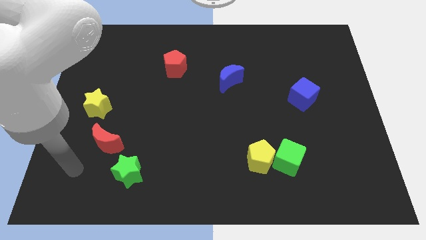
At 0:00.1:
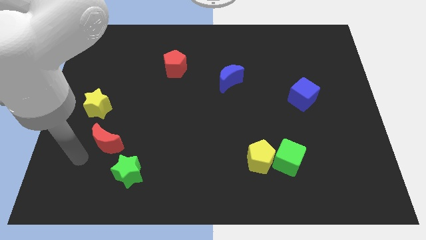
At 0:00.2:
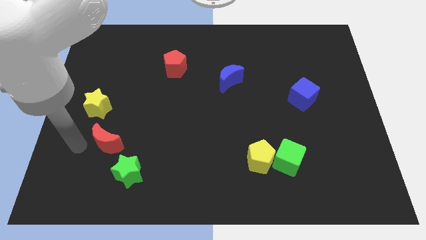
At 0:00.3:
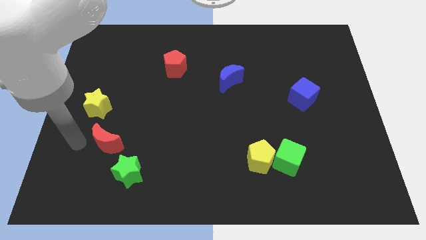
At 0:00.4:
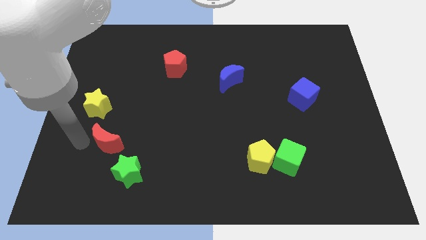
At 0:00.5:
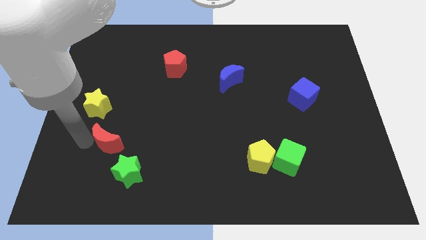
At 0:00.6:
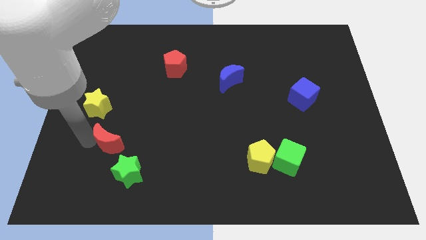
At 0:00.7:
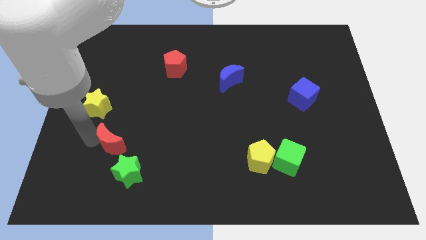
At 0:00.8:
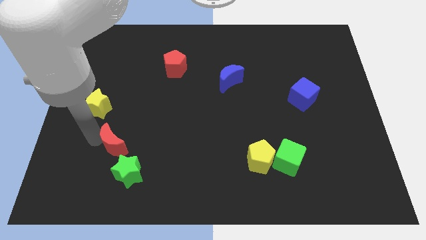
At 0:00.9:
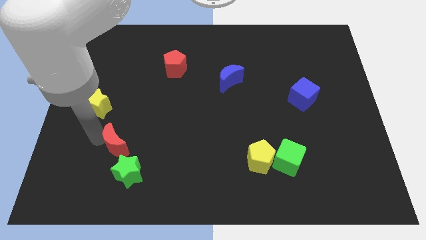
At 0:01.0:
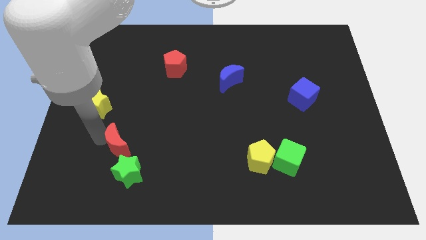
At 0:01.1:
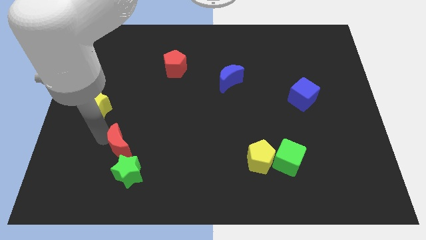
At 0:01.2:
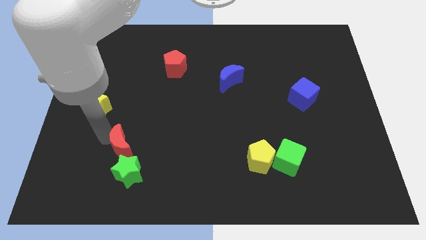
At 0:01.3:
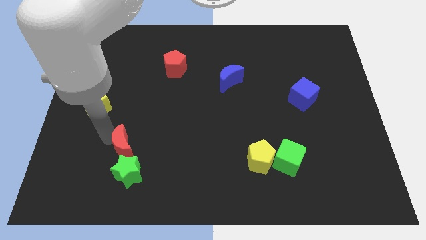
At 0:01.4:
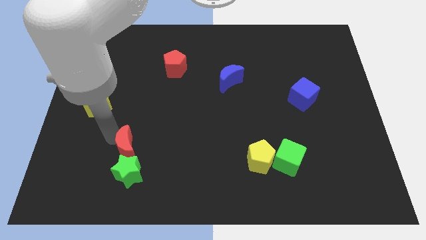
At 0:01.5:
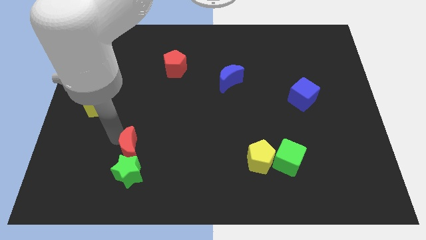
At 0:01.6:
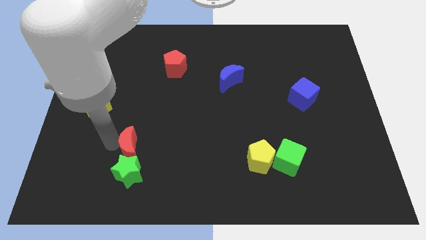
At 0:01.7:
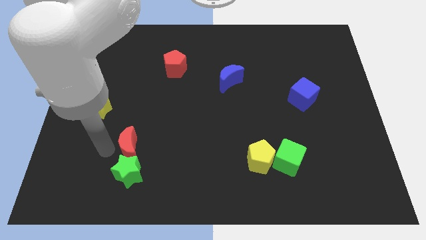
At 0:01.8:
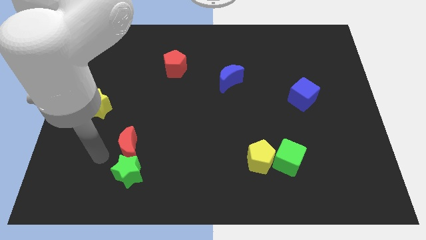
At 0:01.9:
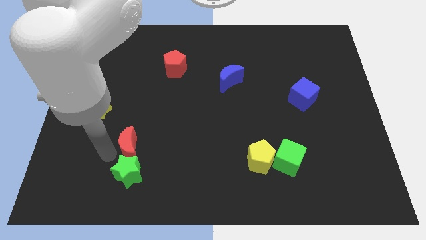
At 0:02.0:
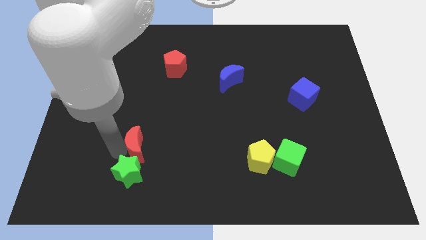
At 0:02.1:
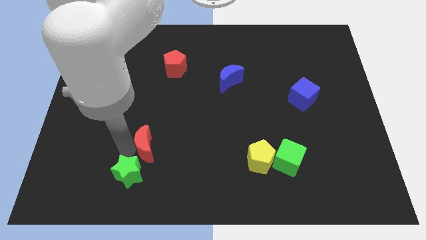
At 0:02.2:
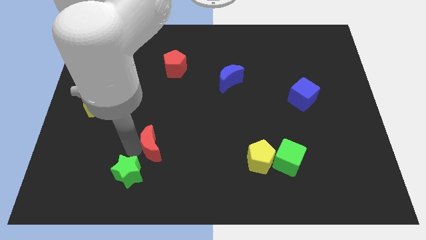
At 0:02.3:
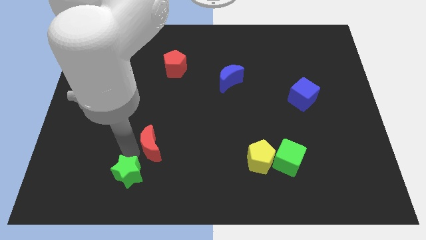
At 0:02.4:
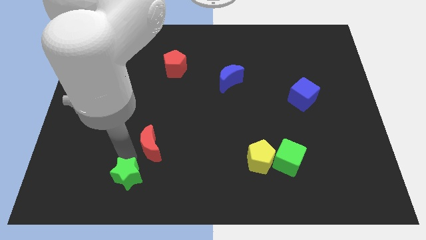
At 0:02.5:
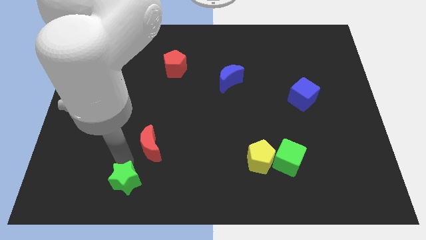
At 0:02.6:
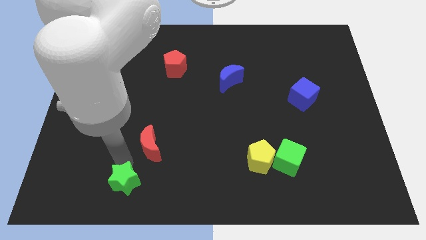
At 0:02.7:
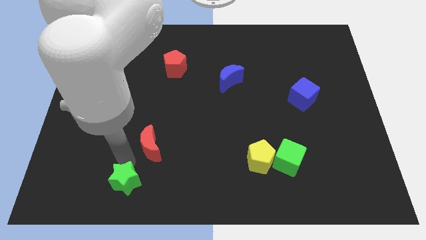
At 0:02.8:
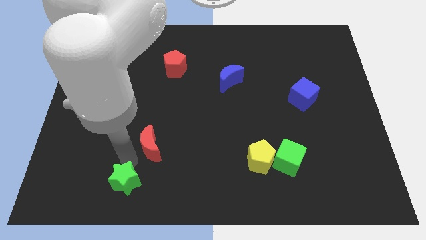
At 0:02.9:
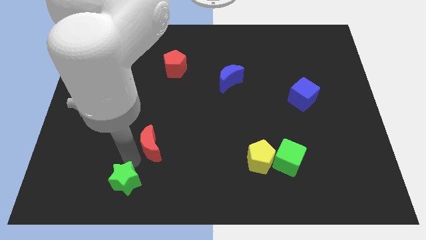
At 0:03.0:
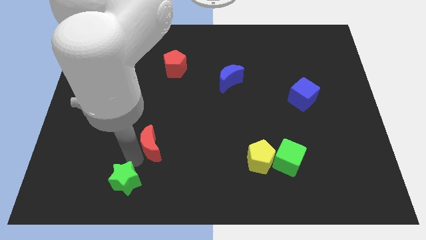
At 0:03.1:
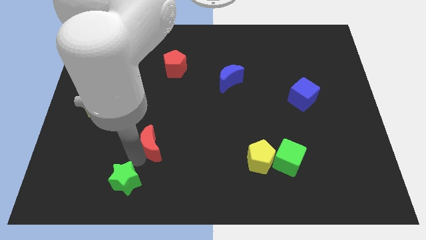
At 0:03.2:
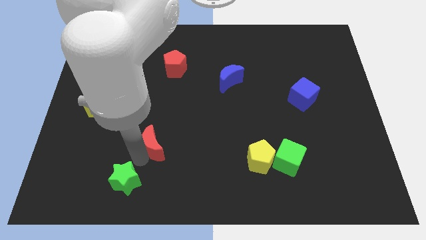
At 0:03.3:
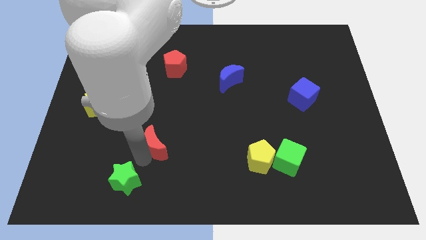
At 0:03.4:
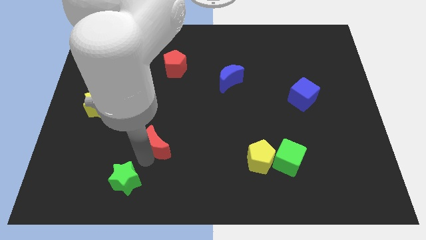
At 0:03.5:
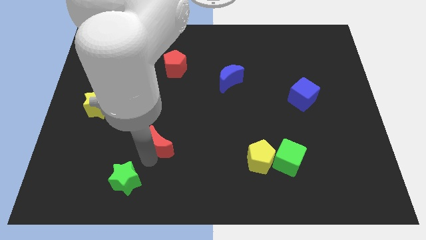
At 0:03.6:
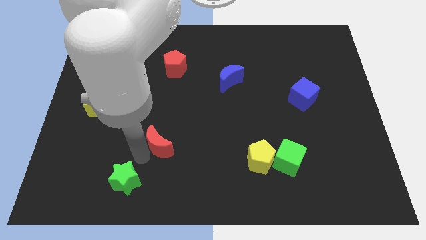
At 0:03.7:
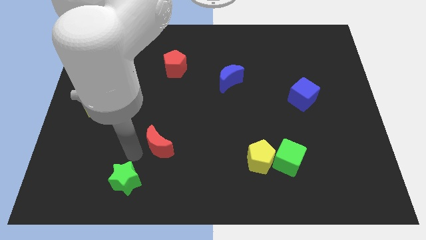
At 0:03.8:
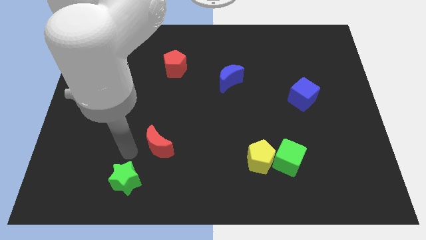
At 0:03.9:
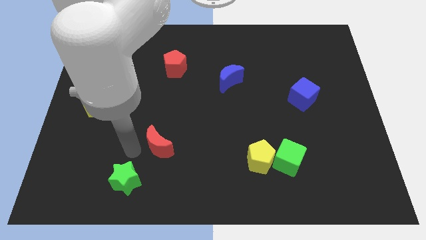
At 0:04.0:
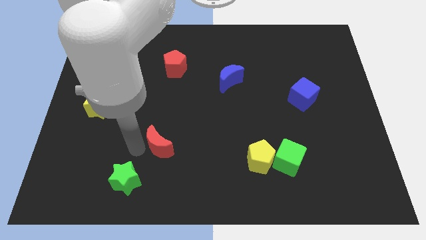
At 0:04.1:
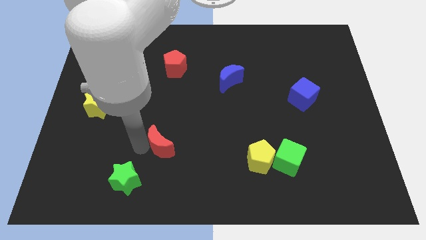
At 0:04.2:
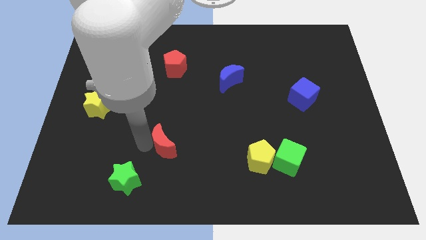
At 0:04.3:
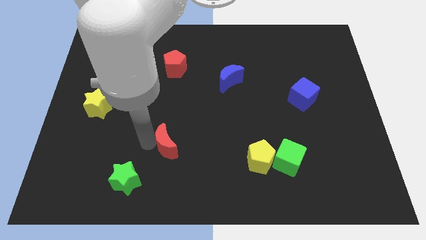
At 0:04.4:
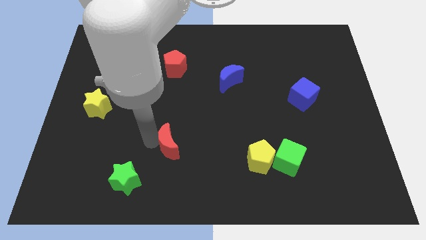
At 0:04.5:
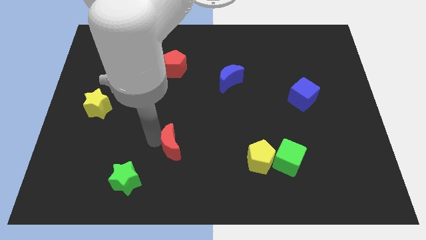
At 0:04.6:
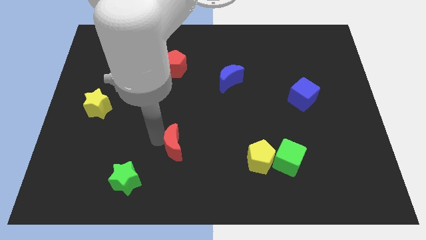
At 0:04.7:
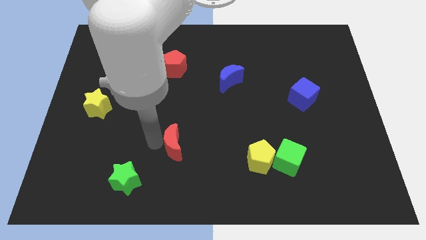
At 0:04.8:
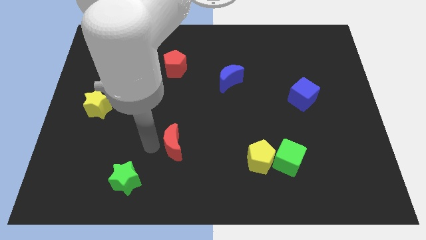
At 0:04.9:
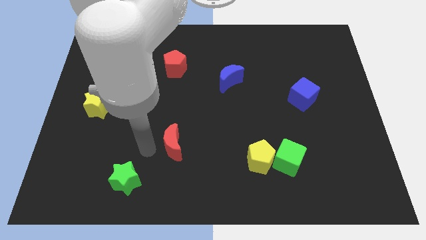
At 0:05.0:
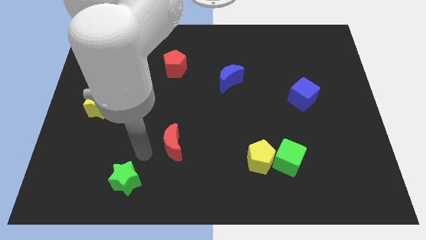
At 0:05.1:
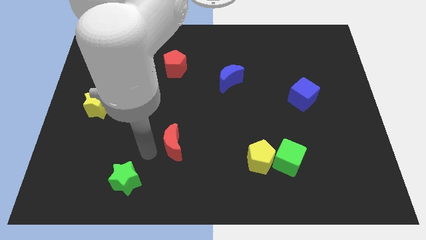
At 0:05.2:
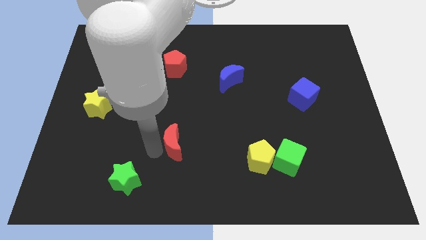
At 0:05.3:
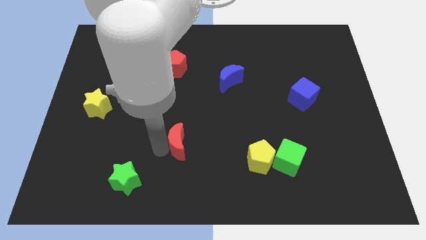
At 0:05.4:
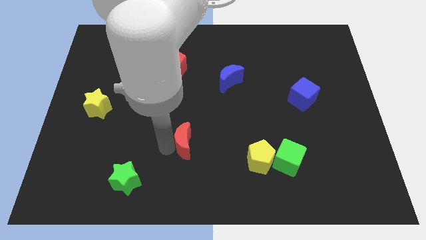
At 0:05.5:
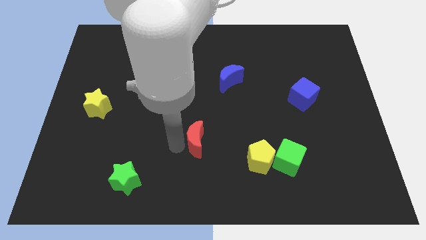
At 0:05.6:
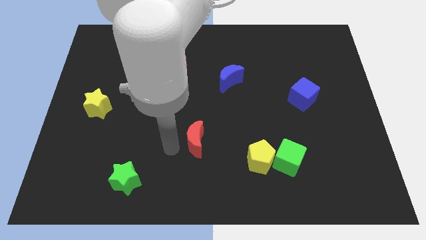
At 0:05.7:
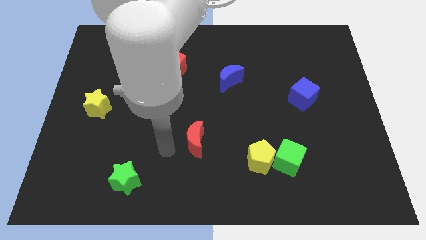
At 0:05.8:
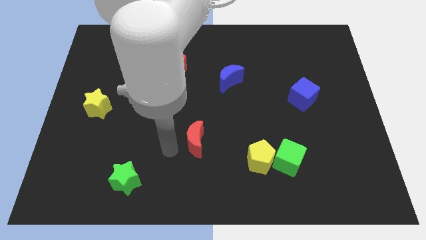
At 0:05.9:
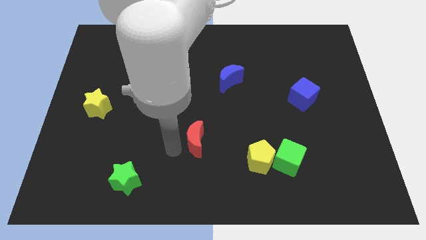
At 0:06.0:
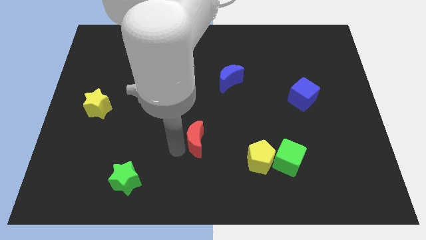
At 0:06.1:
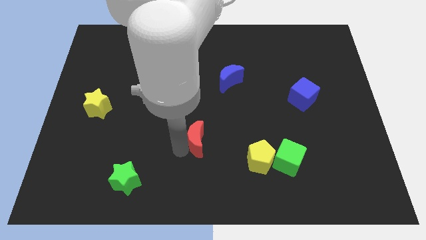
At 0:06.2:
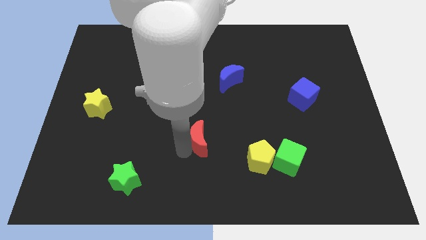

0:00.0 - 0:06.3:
push the red moon to the right

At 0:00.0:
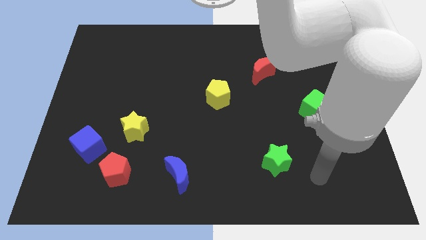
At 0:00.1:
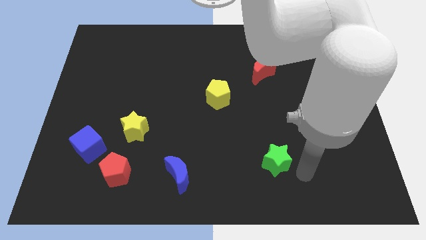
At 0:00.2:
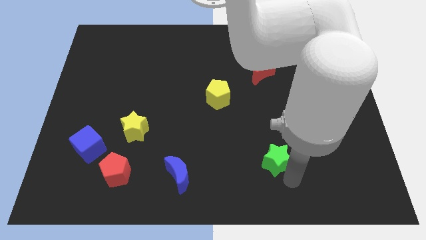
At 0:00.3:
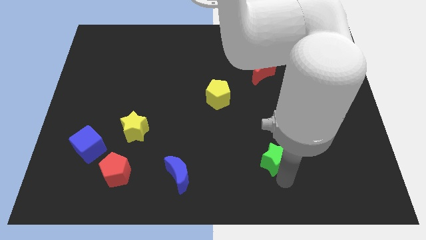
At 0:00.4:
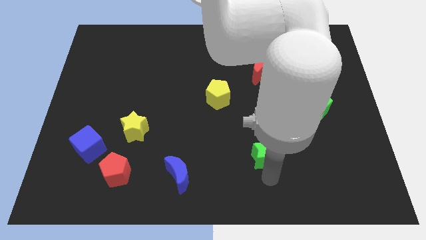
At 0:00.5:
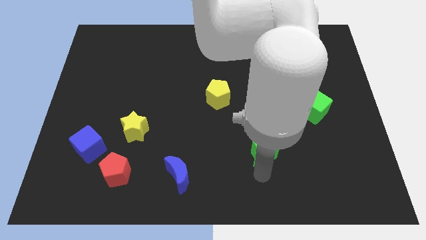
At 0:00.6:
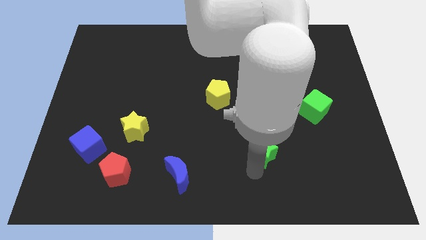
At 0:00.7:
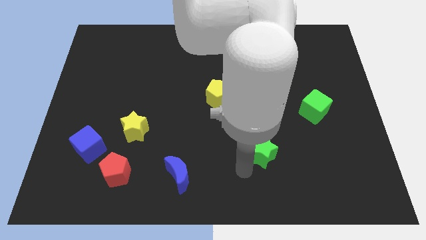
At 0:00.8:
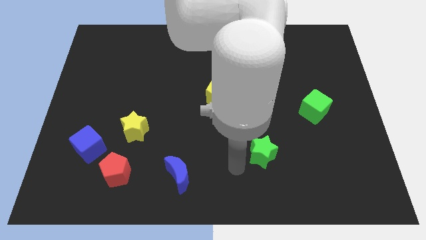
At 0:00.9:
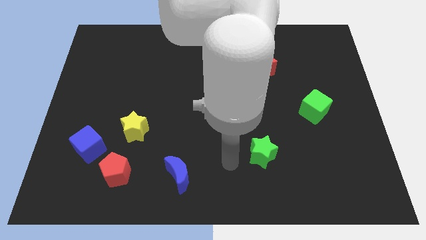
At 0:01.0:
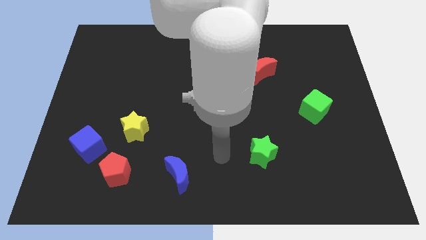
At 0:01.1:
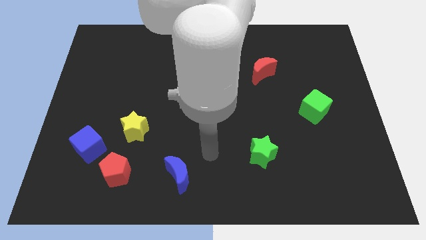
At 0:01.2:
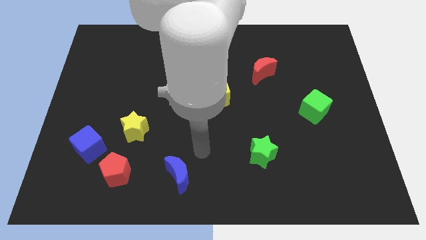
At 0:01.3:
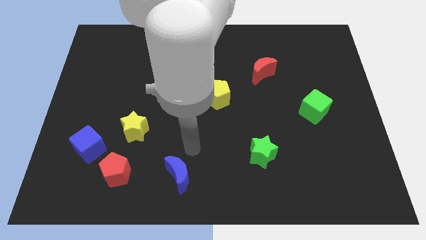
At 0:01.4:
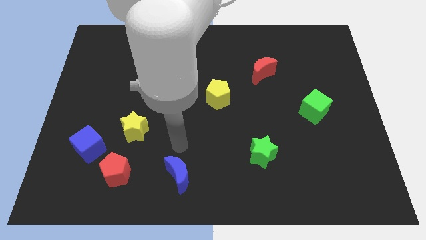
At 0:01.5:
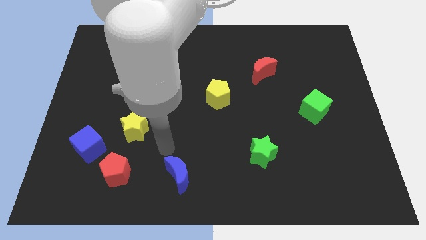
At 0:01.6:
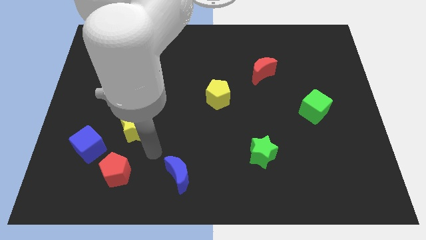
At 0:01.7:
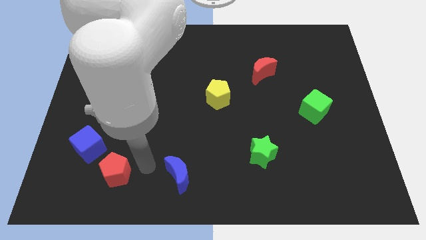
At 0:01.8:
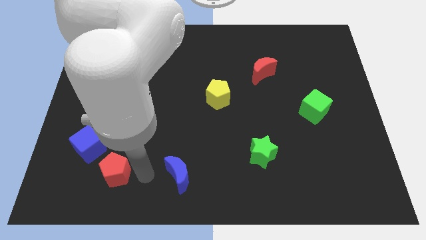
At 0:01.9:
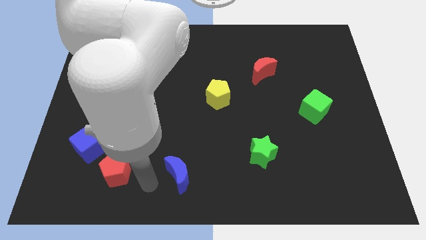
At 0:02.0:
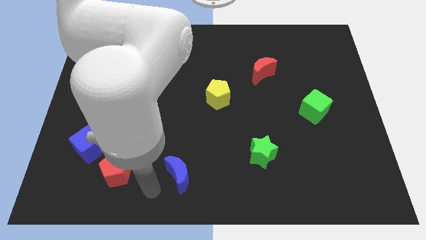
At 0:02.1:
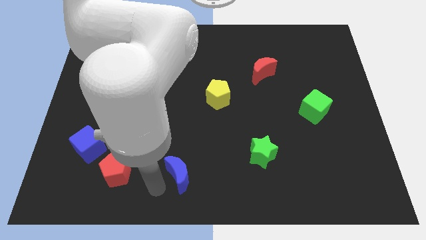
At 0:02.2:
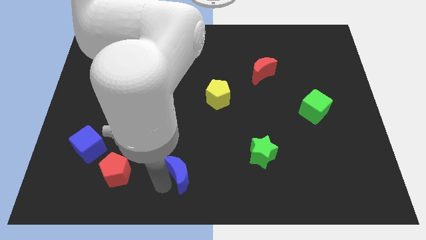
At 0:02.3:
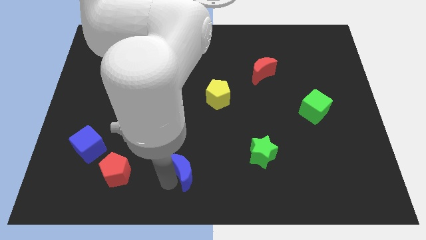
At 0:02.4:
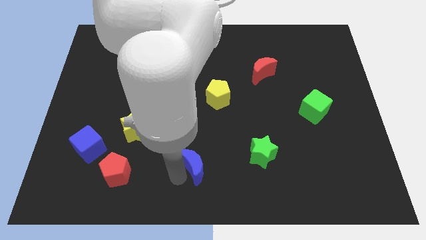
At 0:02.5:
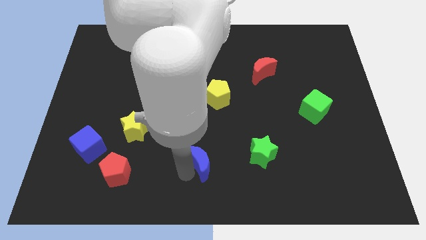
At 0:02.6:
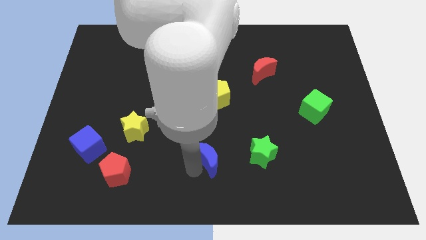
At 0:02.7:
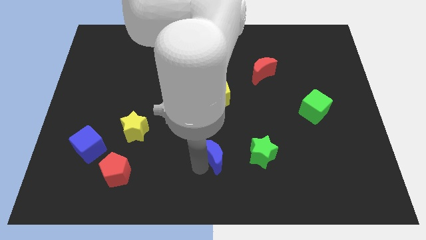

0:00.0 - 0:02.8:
slightly move the blue moon diagonally upwards and right
